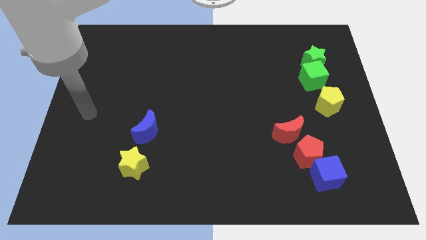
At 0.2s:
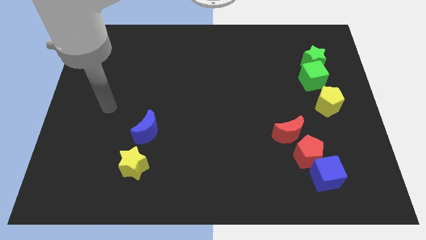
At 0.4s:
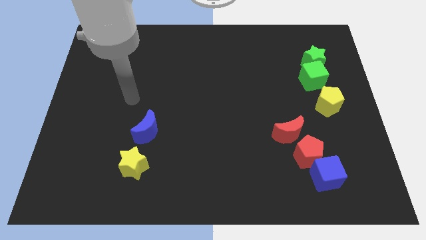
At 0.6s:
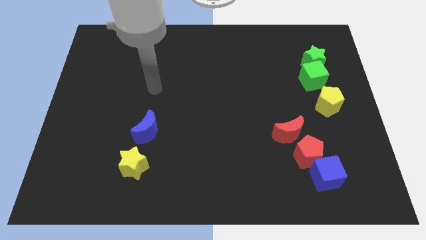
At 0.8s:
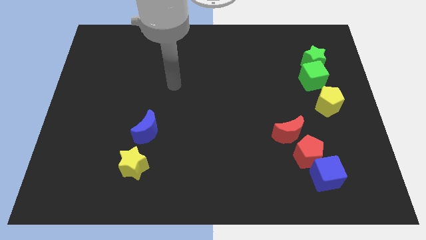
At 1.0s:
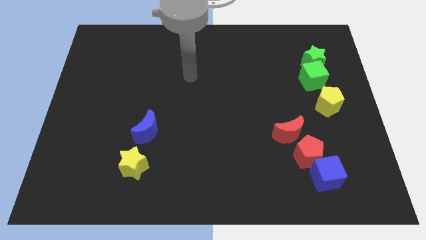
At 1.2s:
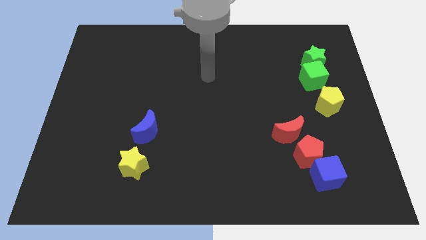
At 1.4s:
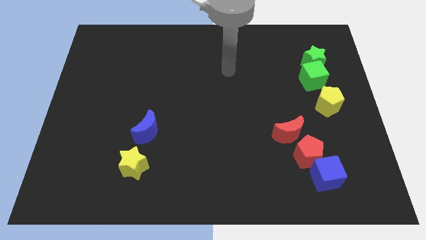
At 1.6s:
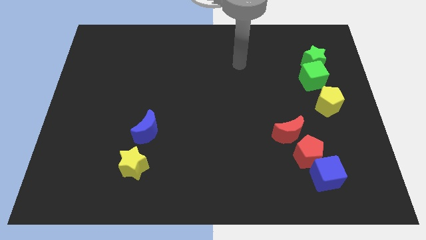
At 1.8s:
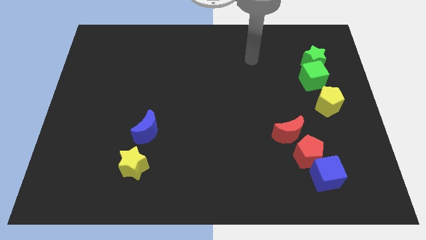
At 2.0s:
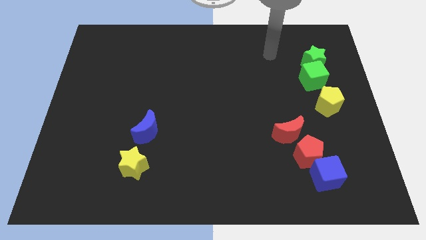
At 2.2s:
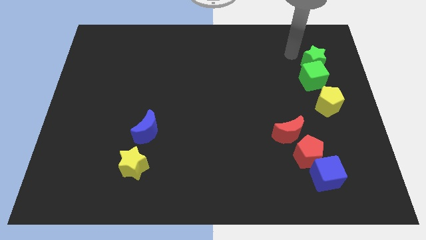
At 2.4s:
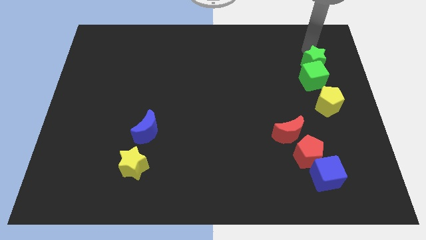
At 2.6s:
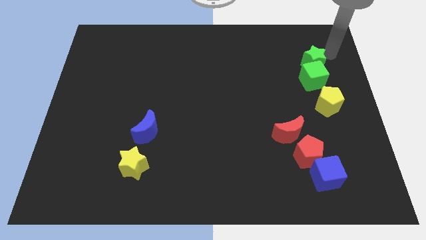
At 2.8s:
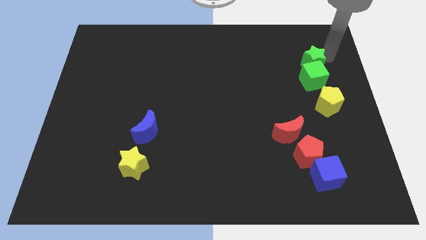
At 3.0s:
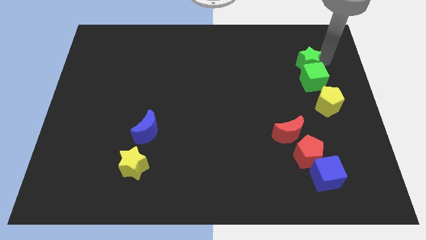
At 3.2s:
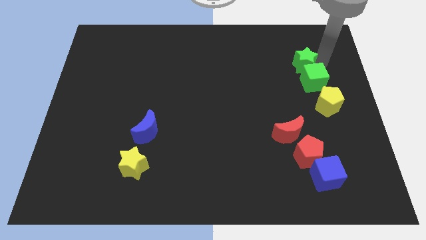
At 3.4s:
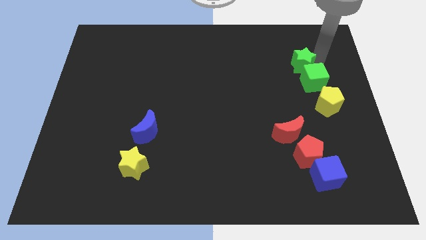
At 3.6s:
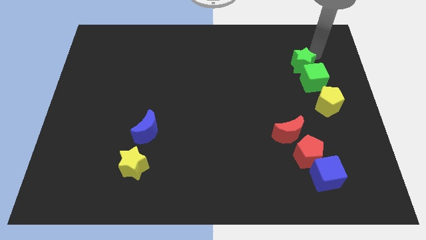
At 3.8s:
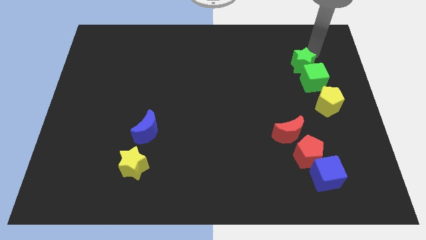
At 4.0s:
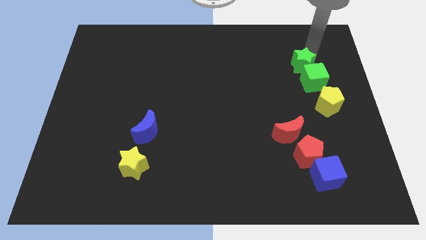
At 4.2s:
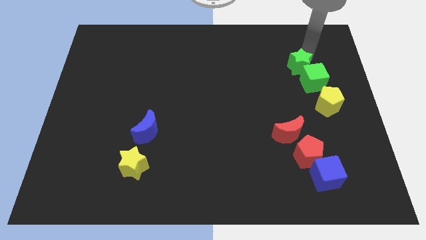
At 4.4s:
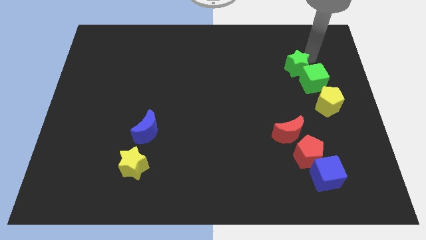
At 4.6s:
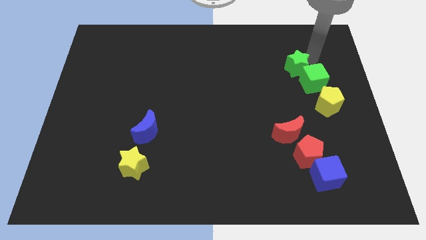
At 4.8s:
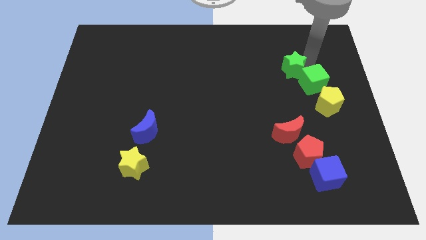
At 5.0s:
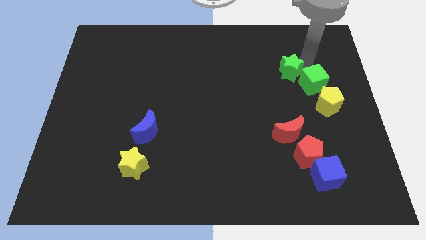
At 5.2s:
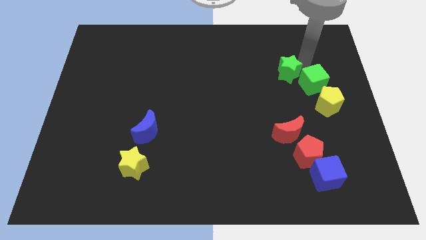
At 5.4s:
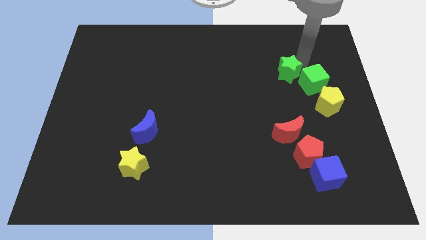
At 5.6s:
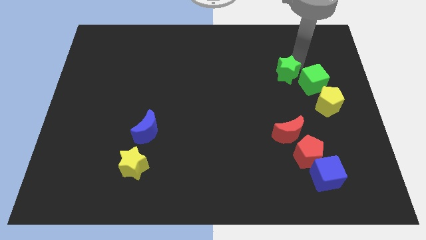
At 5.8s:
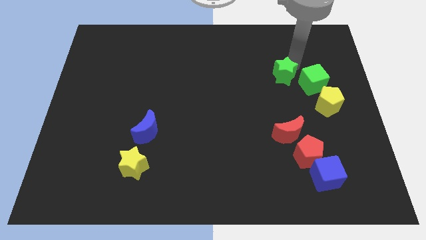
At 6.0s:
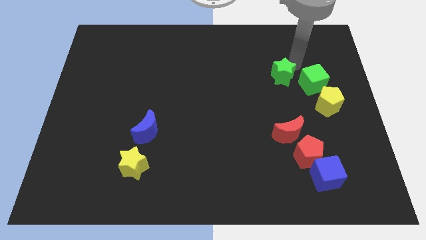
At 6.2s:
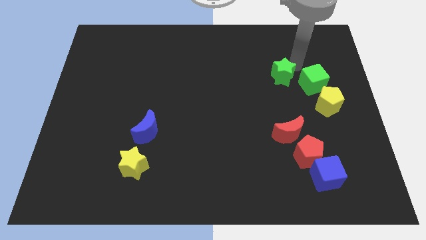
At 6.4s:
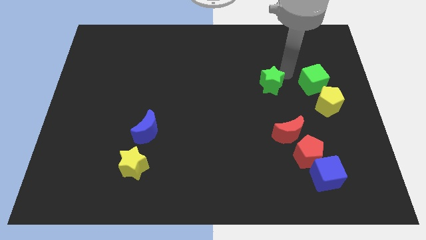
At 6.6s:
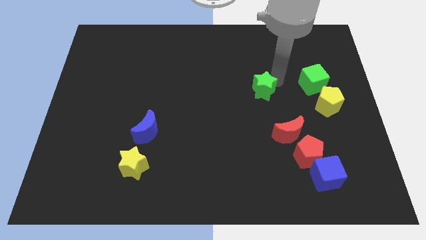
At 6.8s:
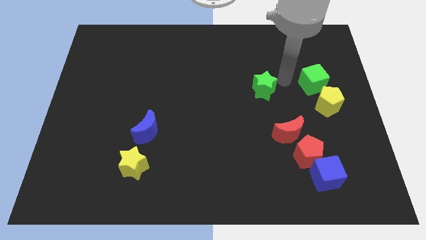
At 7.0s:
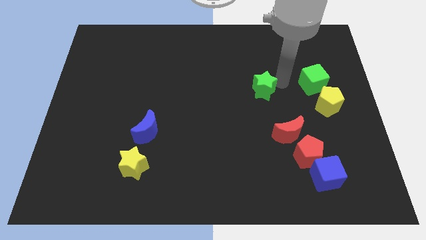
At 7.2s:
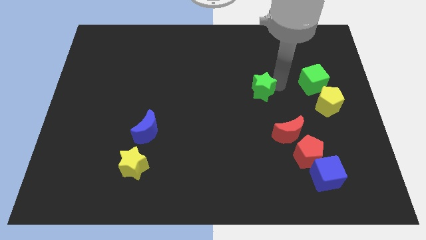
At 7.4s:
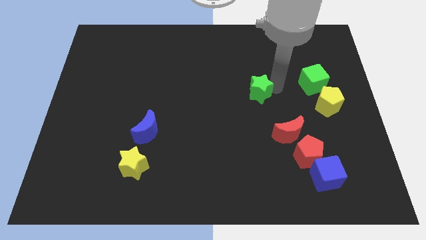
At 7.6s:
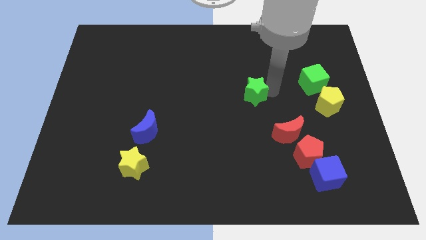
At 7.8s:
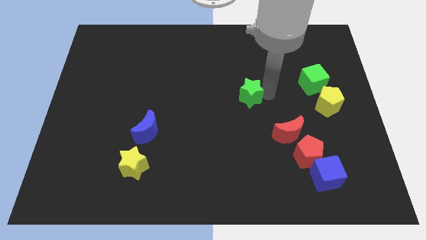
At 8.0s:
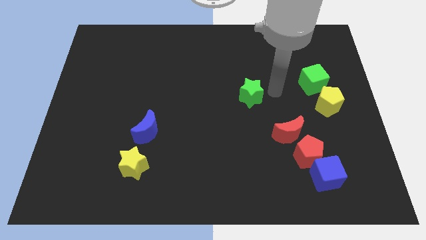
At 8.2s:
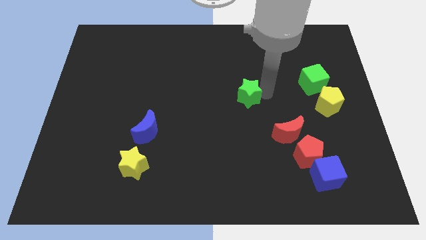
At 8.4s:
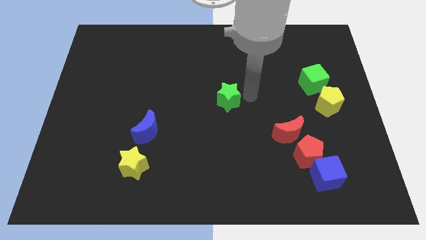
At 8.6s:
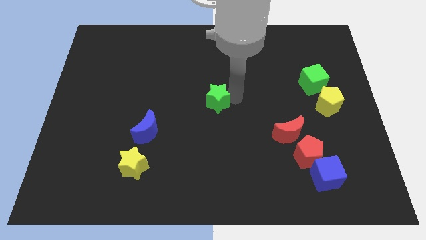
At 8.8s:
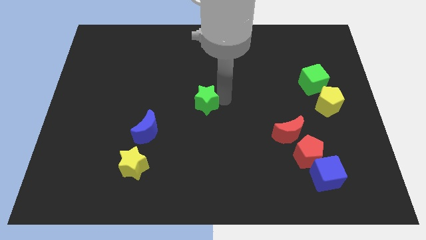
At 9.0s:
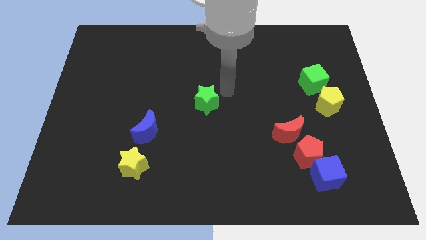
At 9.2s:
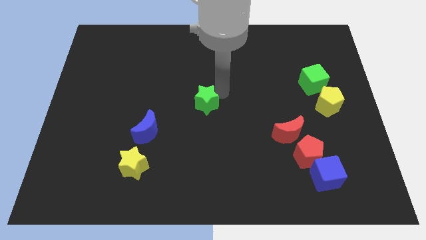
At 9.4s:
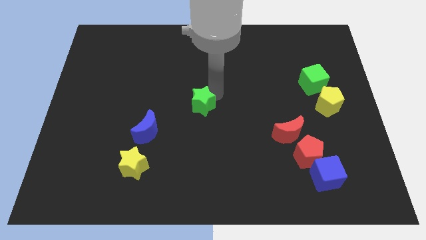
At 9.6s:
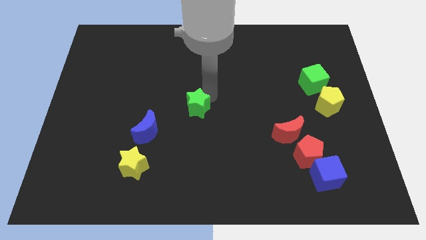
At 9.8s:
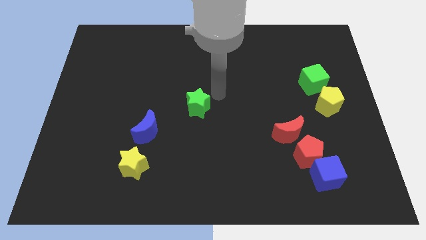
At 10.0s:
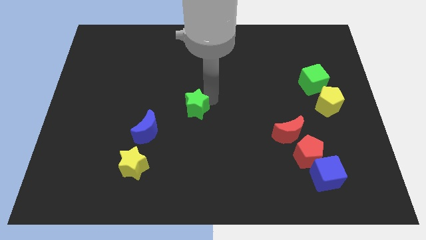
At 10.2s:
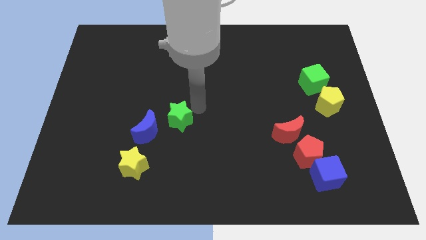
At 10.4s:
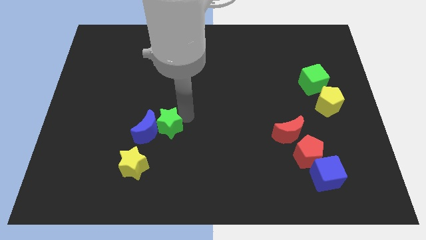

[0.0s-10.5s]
move the green star close to the blue moon

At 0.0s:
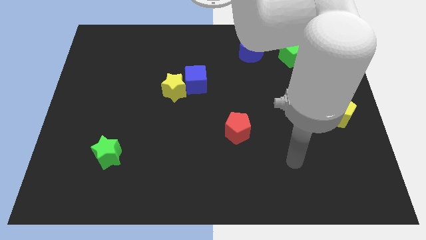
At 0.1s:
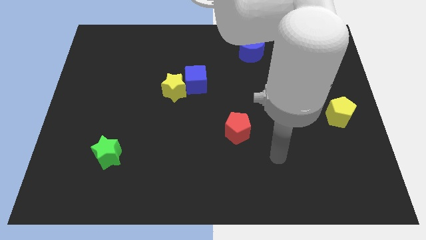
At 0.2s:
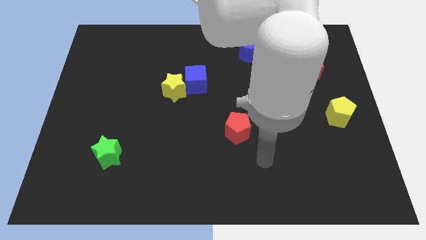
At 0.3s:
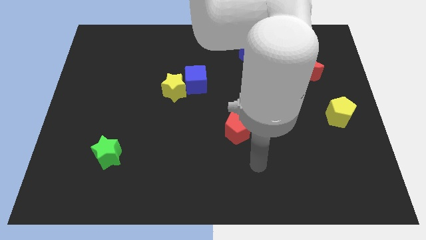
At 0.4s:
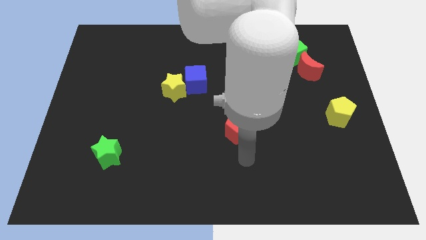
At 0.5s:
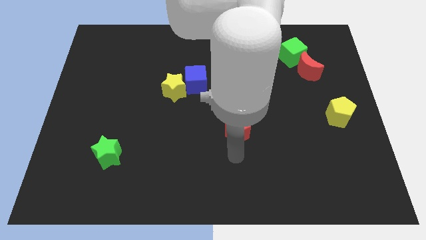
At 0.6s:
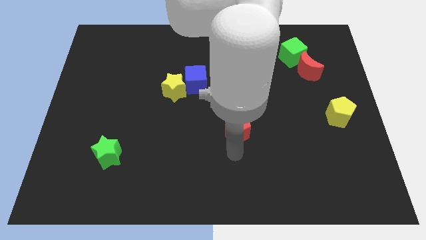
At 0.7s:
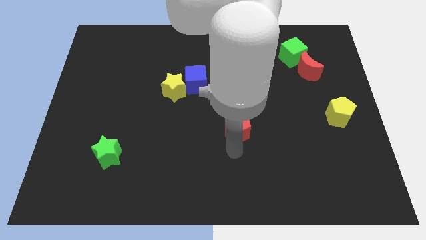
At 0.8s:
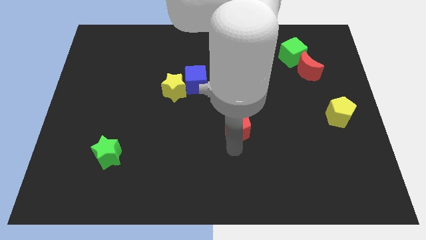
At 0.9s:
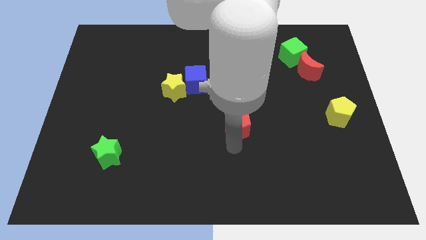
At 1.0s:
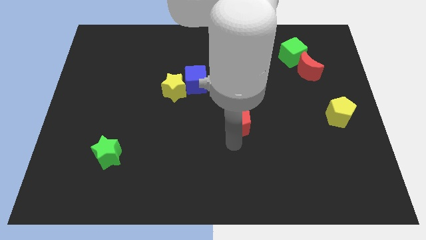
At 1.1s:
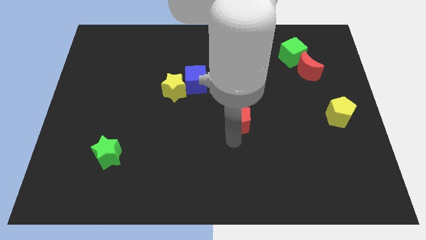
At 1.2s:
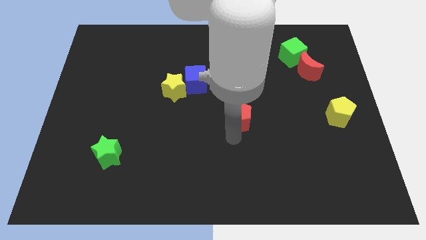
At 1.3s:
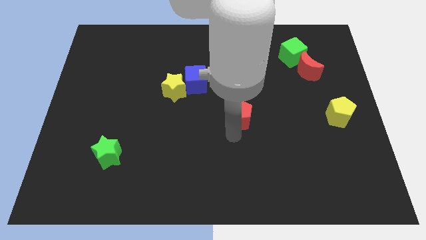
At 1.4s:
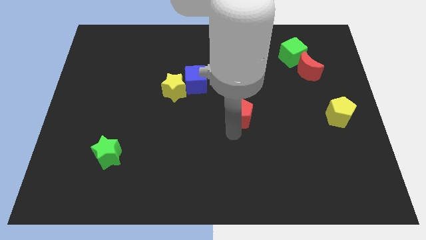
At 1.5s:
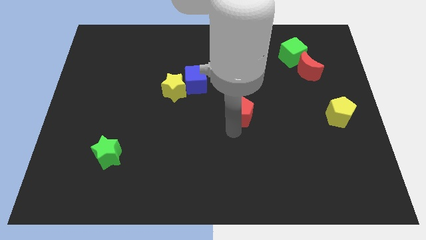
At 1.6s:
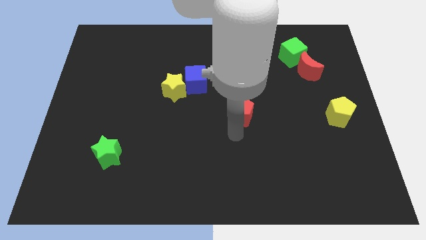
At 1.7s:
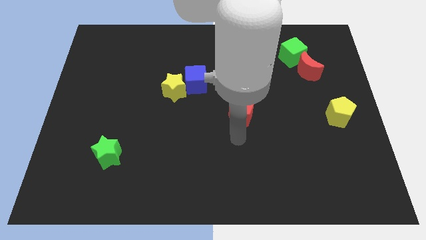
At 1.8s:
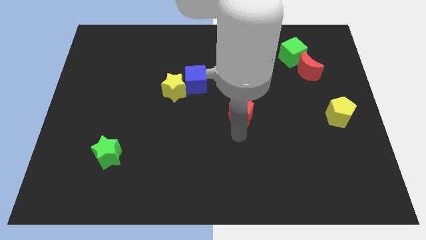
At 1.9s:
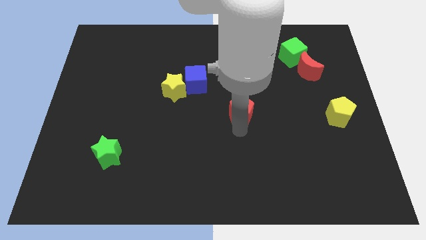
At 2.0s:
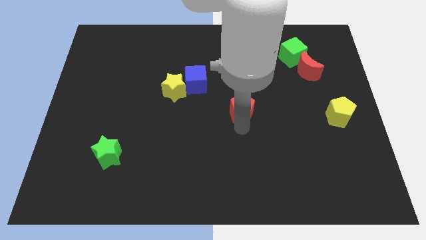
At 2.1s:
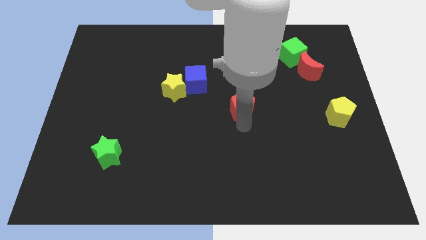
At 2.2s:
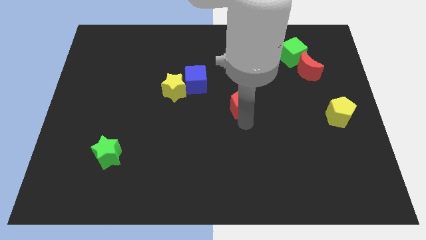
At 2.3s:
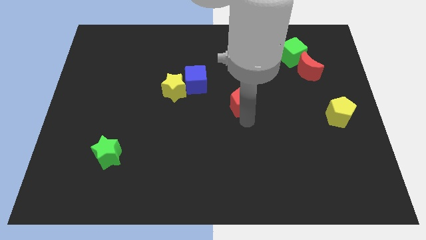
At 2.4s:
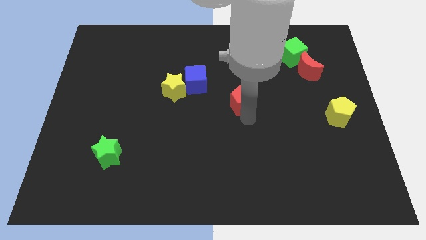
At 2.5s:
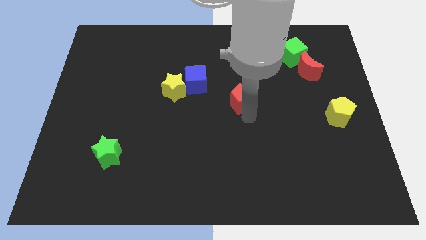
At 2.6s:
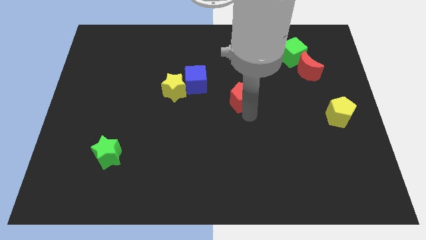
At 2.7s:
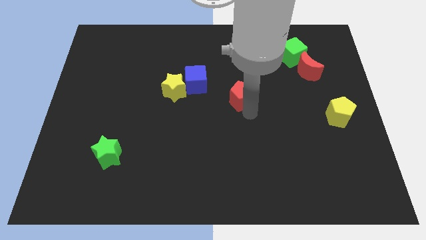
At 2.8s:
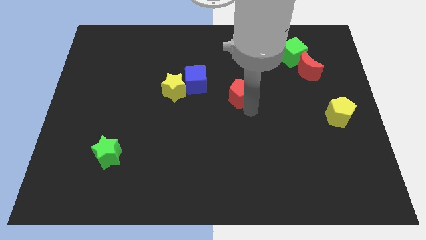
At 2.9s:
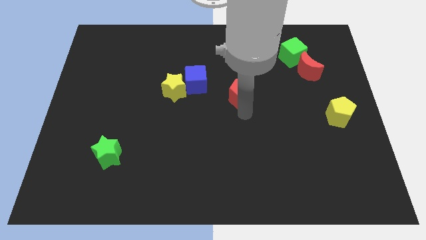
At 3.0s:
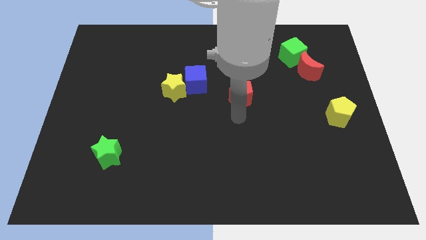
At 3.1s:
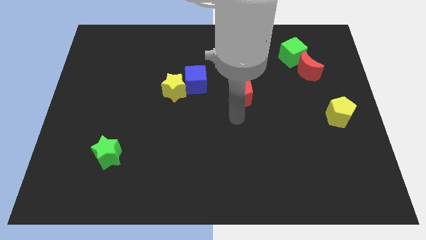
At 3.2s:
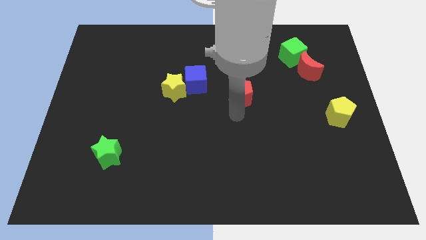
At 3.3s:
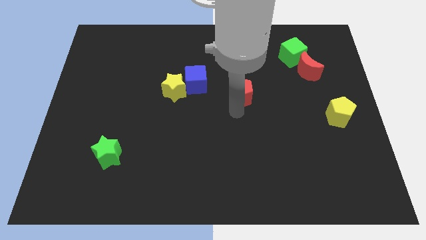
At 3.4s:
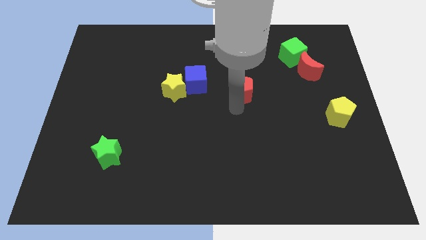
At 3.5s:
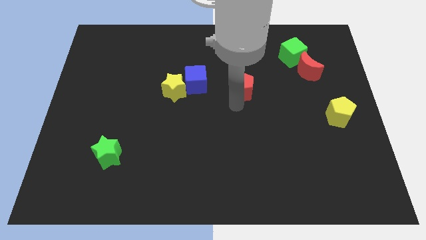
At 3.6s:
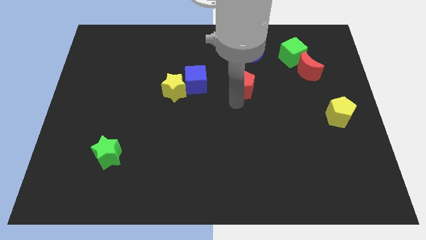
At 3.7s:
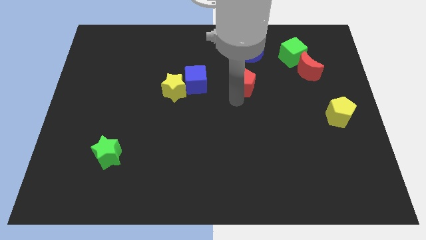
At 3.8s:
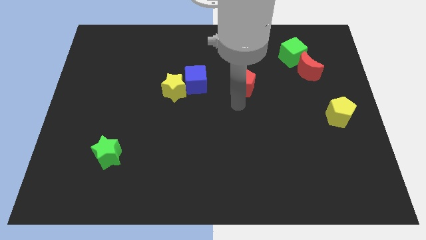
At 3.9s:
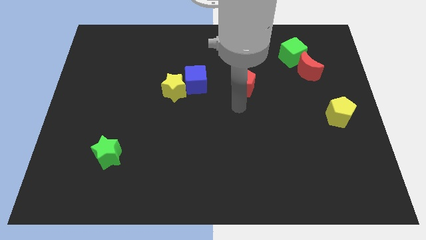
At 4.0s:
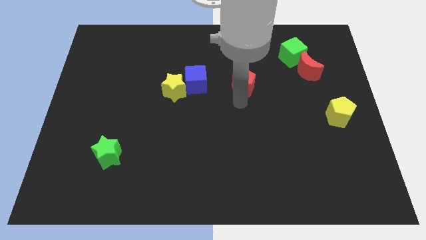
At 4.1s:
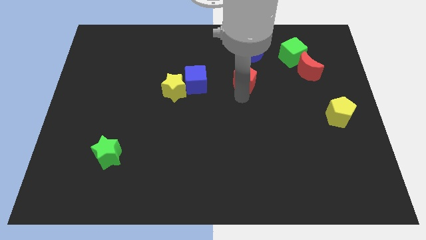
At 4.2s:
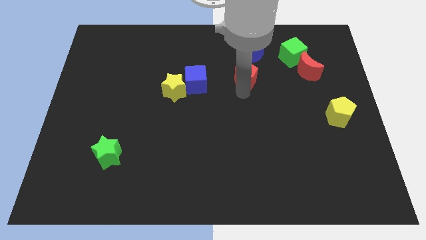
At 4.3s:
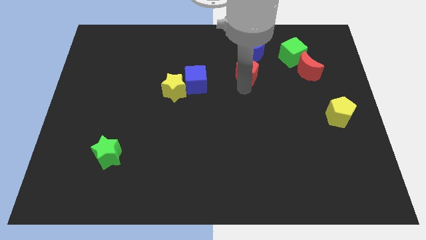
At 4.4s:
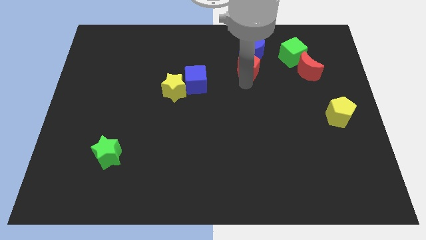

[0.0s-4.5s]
put the red pentagon towards the blue moon
